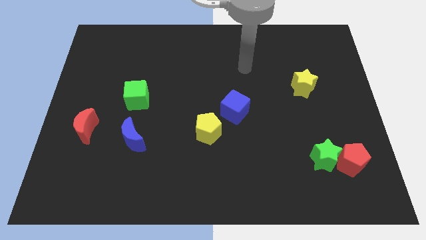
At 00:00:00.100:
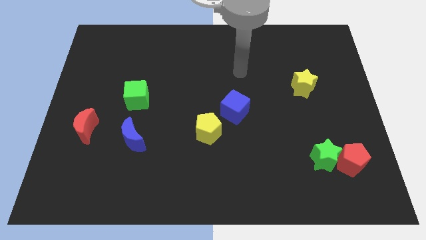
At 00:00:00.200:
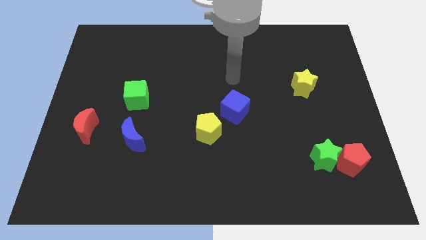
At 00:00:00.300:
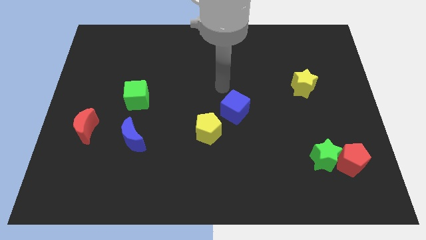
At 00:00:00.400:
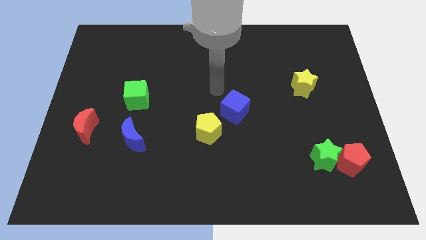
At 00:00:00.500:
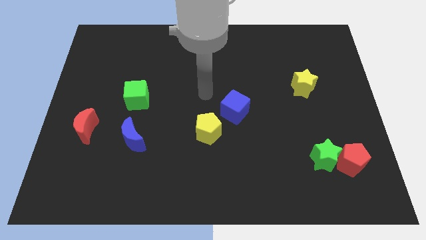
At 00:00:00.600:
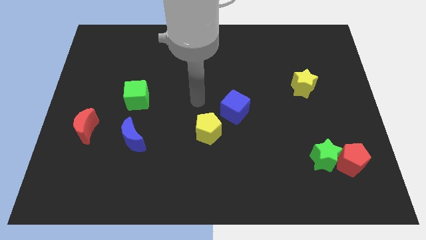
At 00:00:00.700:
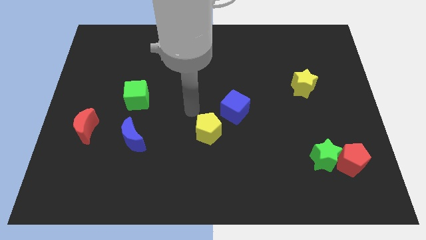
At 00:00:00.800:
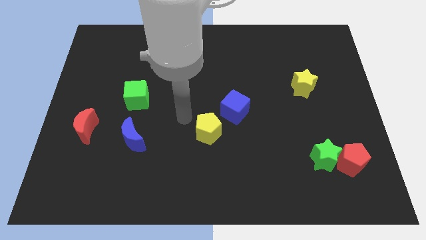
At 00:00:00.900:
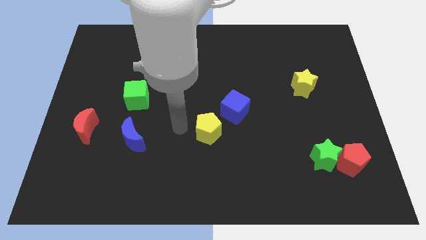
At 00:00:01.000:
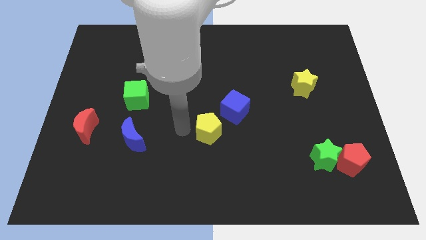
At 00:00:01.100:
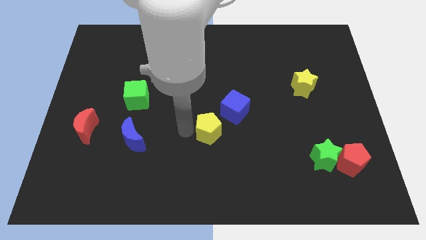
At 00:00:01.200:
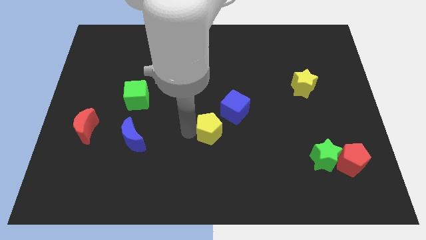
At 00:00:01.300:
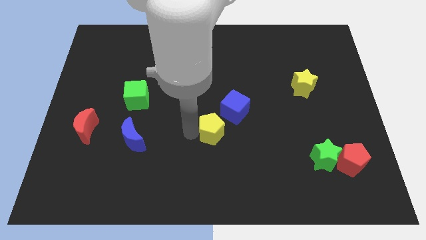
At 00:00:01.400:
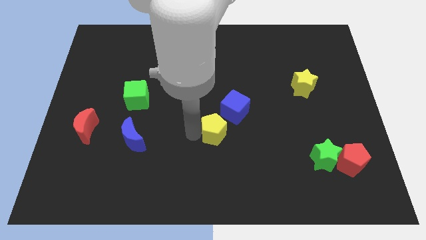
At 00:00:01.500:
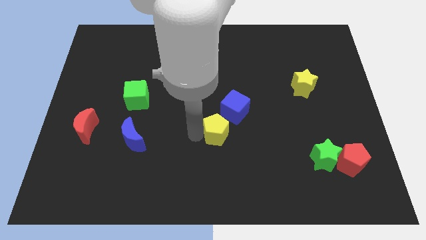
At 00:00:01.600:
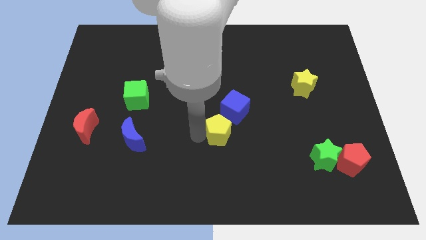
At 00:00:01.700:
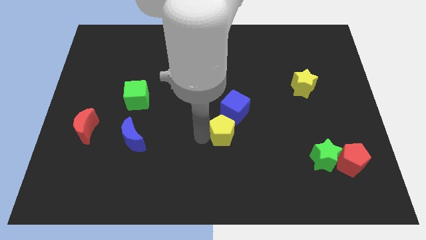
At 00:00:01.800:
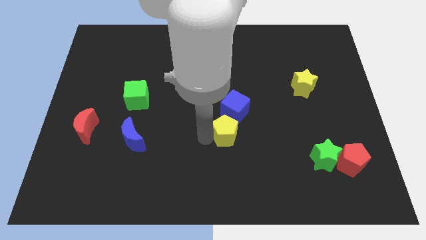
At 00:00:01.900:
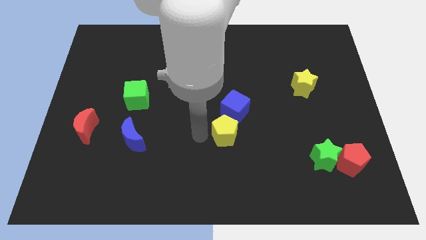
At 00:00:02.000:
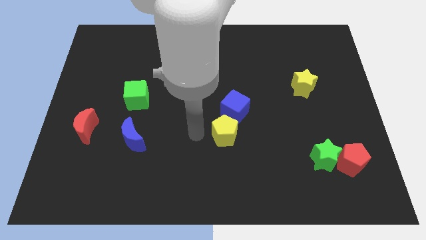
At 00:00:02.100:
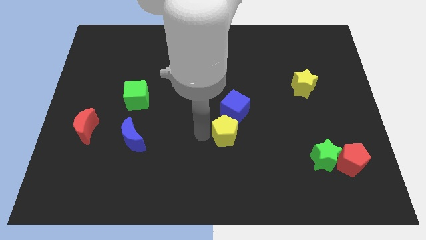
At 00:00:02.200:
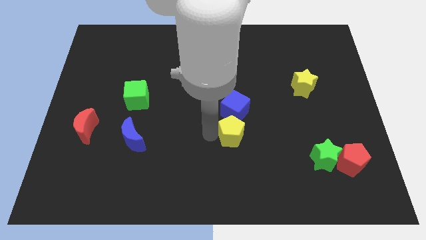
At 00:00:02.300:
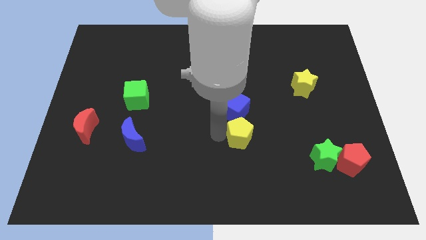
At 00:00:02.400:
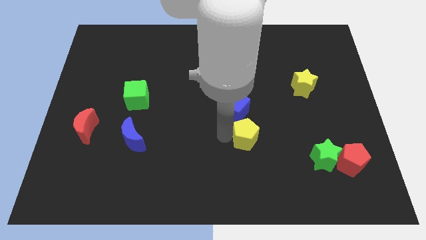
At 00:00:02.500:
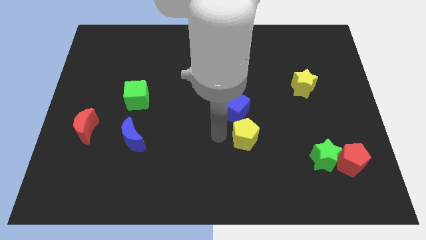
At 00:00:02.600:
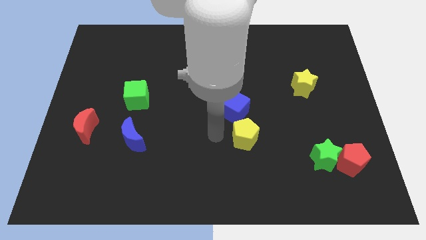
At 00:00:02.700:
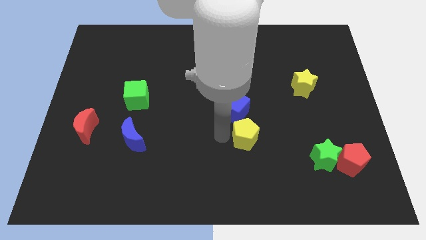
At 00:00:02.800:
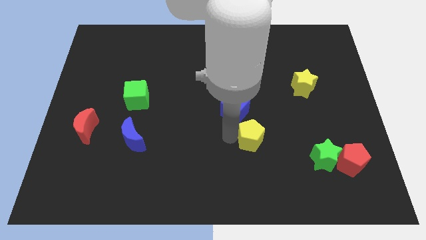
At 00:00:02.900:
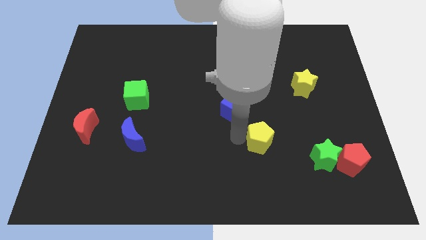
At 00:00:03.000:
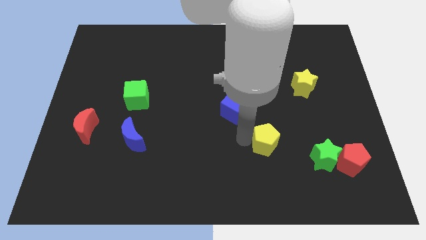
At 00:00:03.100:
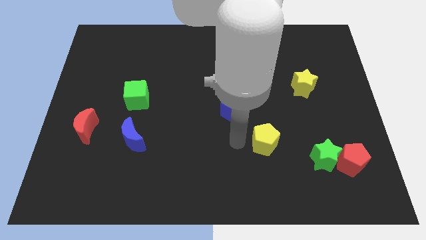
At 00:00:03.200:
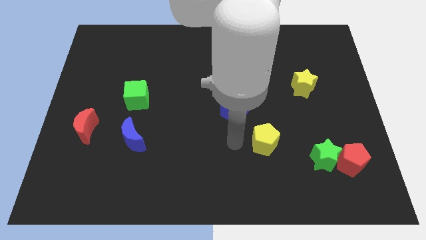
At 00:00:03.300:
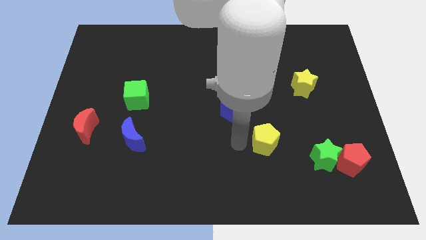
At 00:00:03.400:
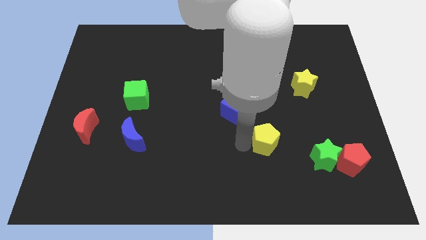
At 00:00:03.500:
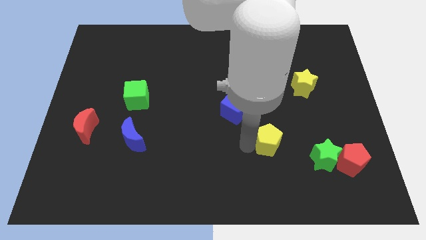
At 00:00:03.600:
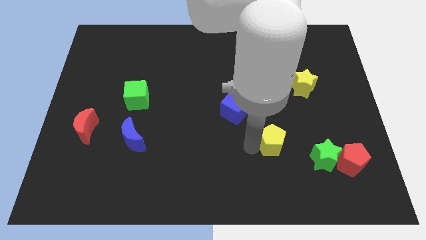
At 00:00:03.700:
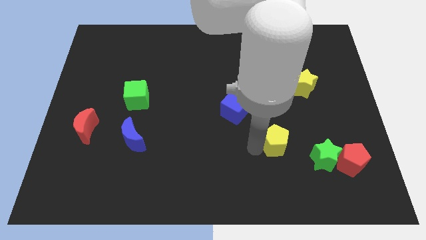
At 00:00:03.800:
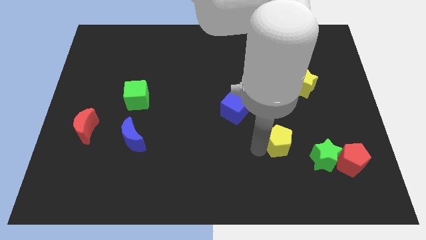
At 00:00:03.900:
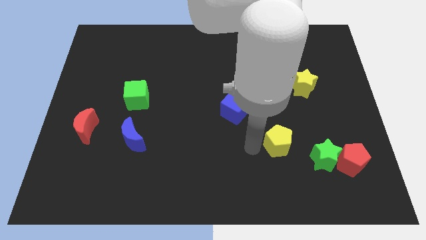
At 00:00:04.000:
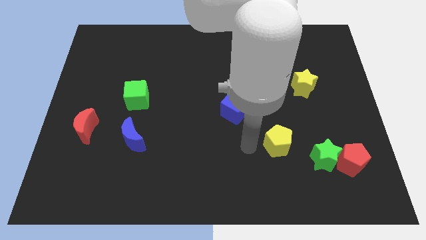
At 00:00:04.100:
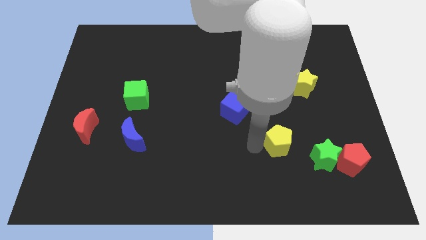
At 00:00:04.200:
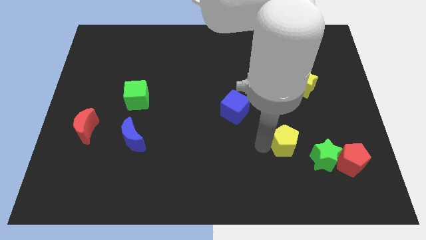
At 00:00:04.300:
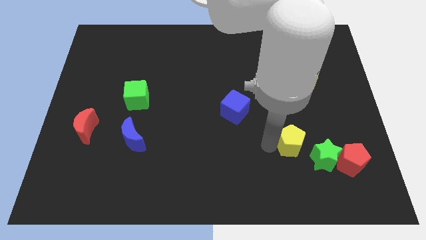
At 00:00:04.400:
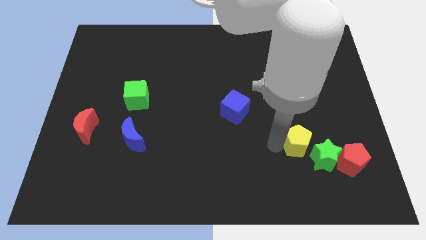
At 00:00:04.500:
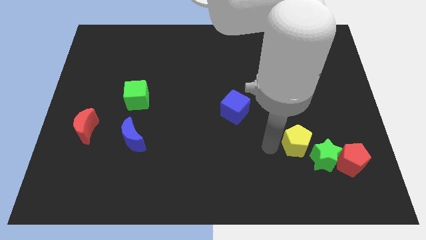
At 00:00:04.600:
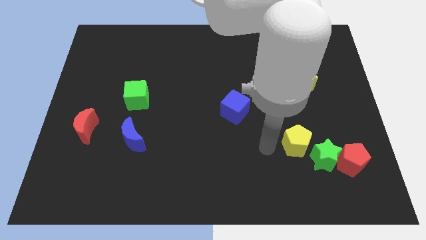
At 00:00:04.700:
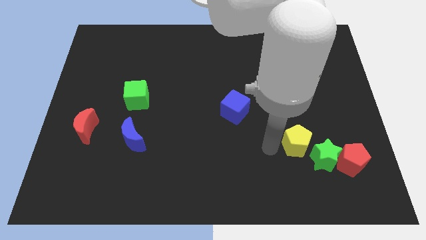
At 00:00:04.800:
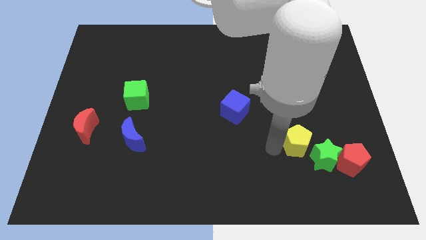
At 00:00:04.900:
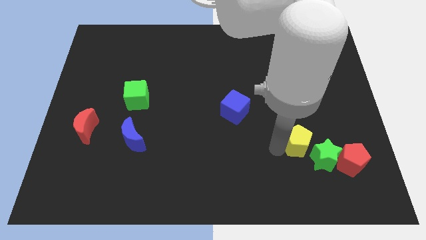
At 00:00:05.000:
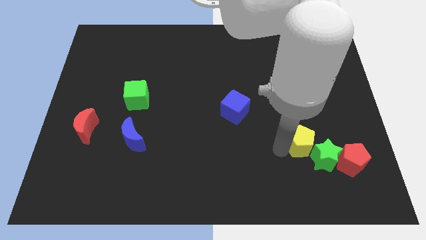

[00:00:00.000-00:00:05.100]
put the yellow pentagon to the top left of the red pentagon

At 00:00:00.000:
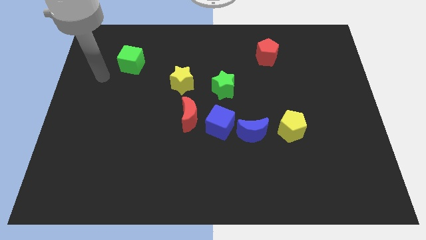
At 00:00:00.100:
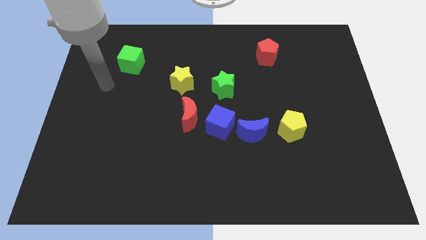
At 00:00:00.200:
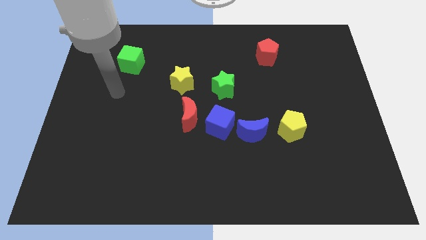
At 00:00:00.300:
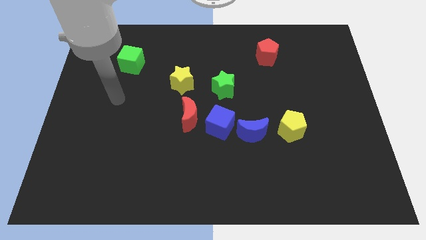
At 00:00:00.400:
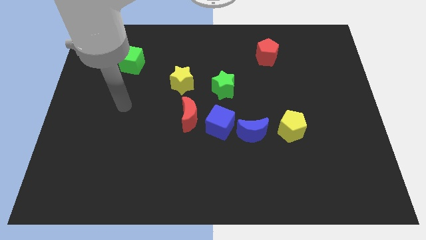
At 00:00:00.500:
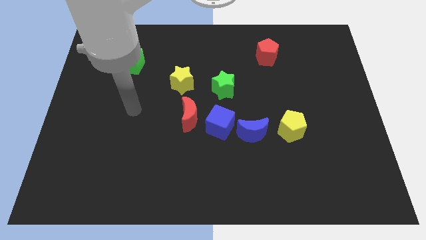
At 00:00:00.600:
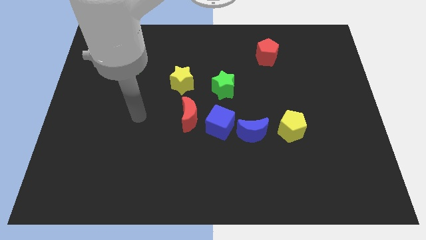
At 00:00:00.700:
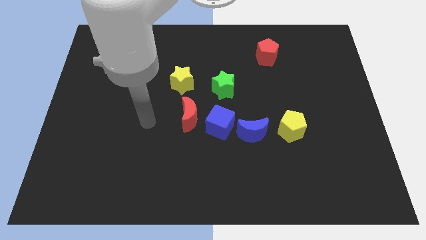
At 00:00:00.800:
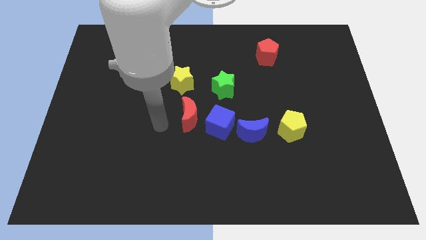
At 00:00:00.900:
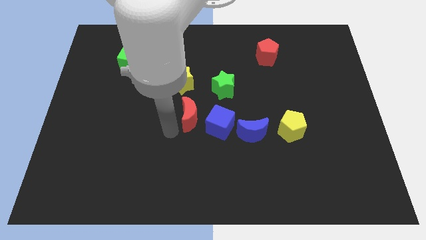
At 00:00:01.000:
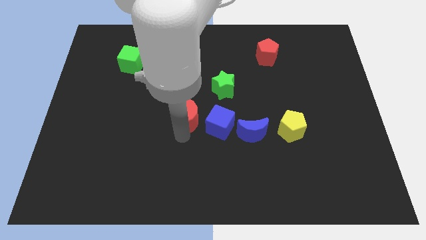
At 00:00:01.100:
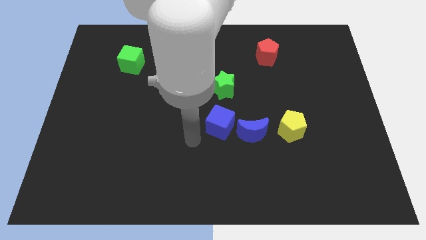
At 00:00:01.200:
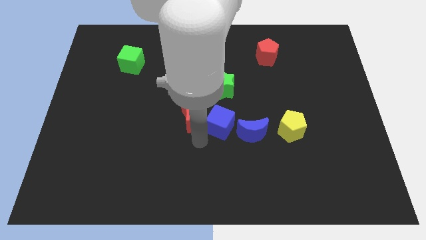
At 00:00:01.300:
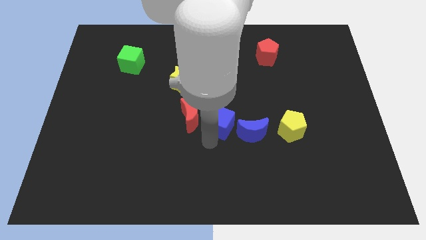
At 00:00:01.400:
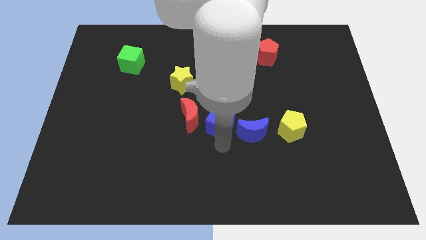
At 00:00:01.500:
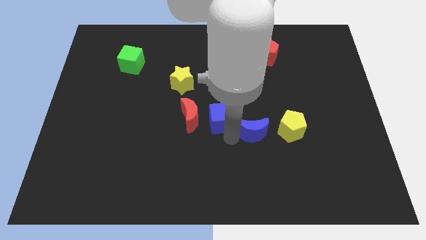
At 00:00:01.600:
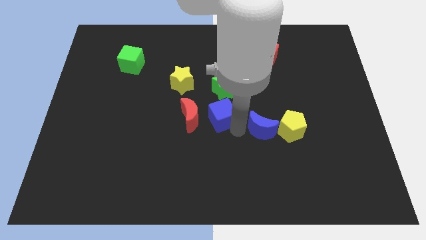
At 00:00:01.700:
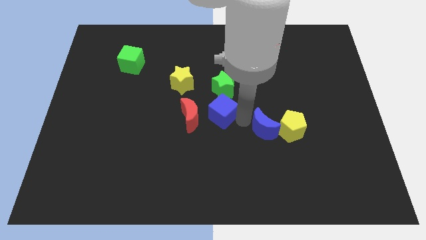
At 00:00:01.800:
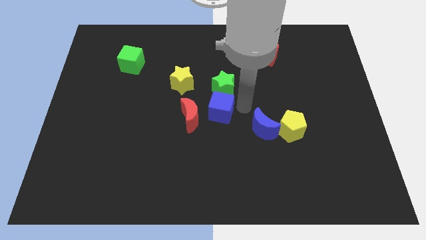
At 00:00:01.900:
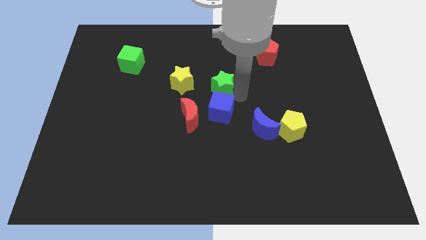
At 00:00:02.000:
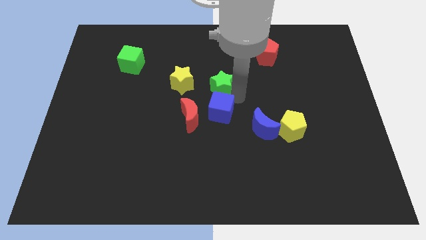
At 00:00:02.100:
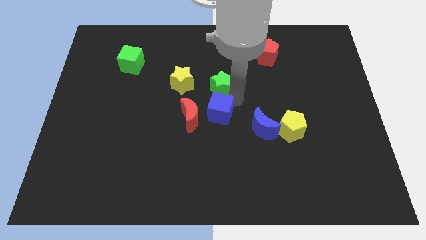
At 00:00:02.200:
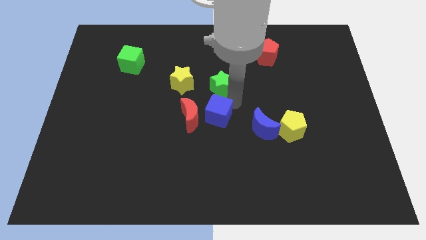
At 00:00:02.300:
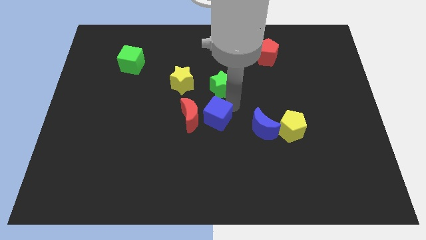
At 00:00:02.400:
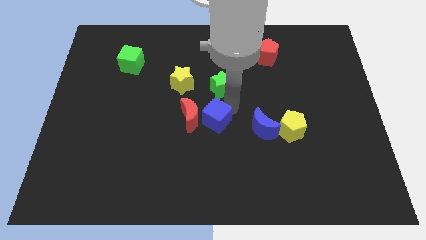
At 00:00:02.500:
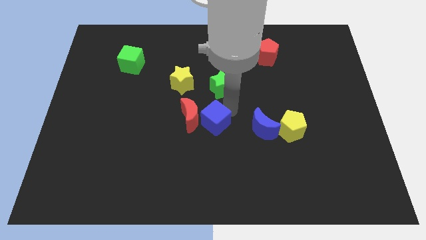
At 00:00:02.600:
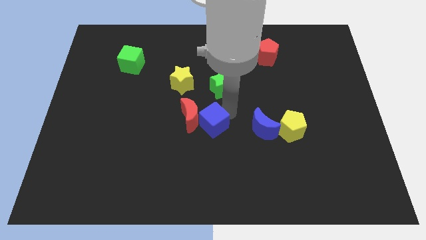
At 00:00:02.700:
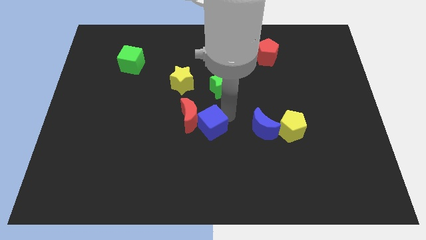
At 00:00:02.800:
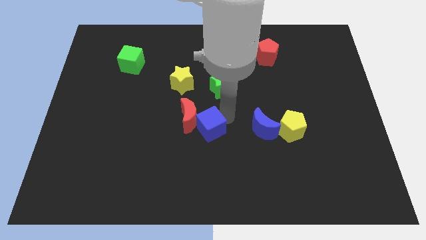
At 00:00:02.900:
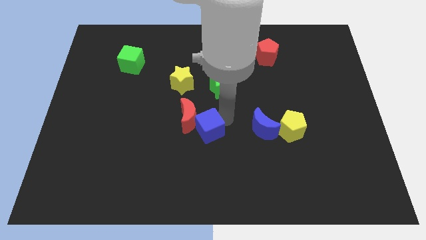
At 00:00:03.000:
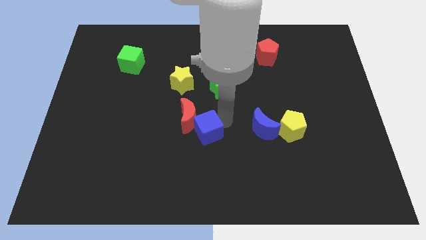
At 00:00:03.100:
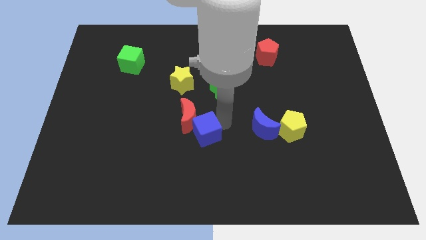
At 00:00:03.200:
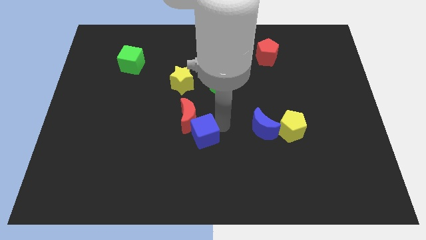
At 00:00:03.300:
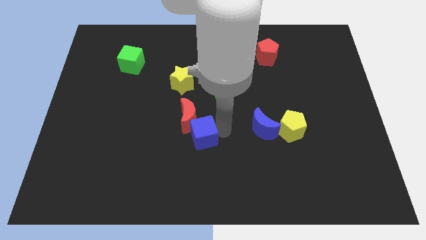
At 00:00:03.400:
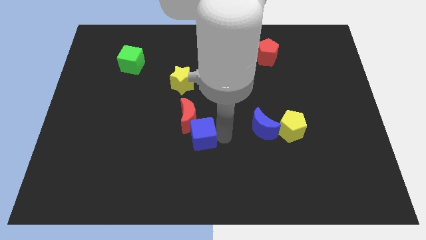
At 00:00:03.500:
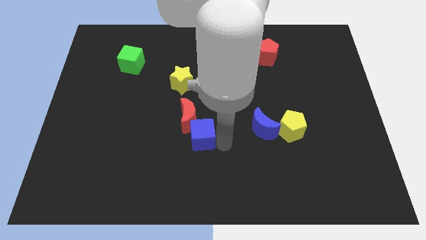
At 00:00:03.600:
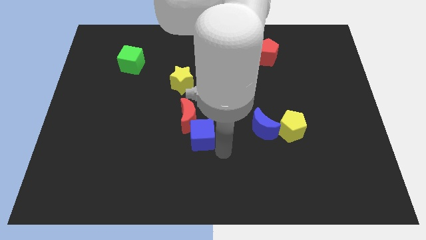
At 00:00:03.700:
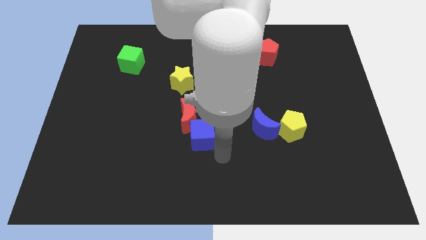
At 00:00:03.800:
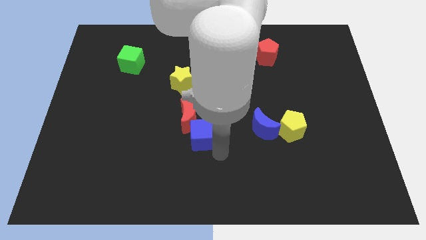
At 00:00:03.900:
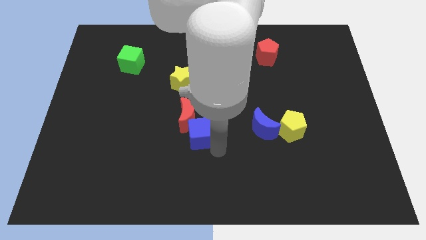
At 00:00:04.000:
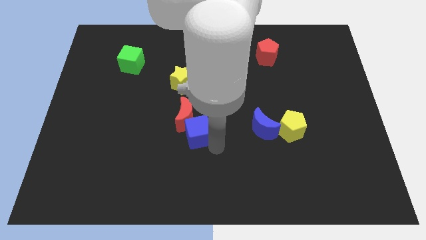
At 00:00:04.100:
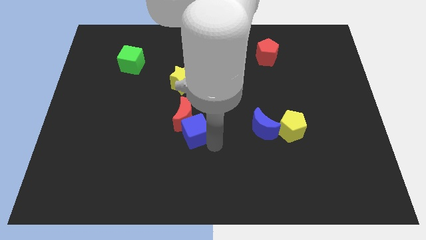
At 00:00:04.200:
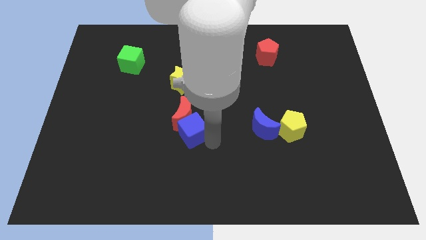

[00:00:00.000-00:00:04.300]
push the blue cube to the bottom side of the yellow star
